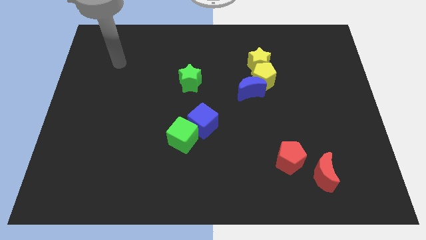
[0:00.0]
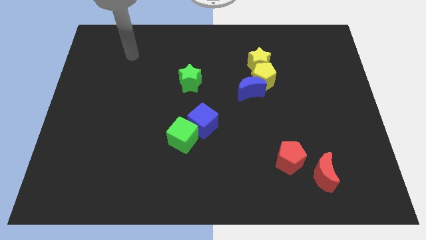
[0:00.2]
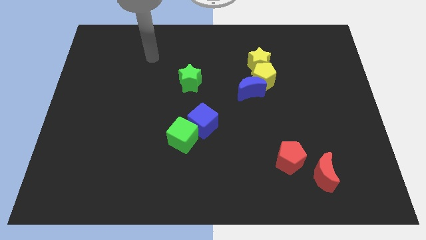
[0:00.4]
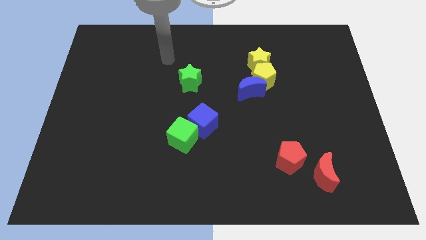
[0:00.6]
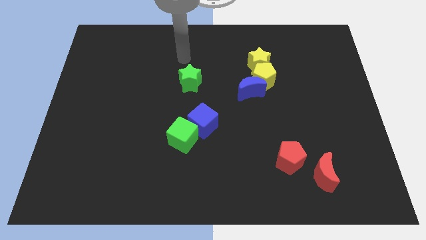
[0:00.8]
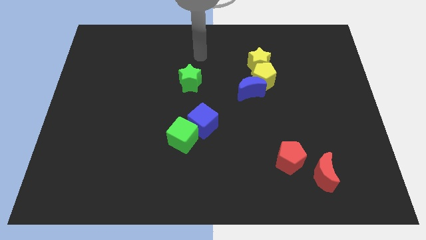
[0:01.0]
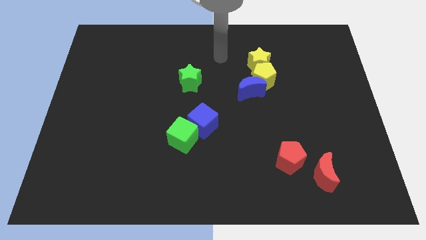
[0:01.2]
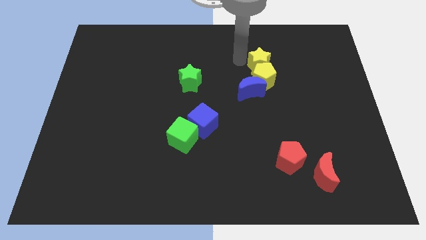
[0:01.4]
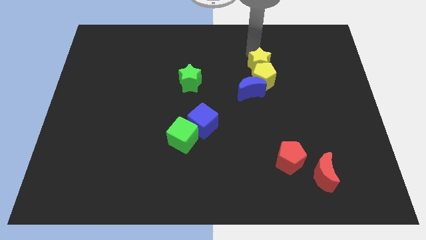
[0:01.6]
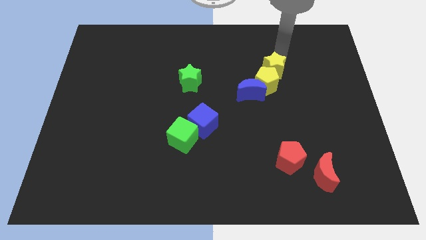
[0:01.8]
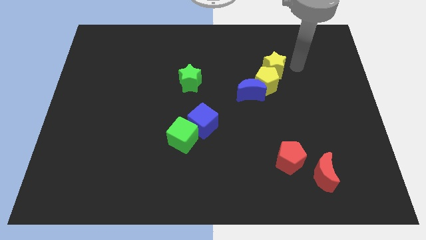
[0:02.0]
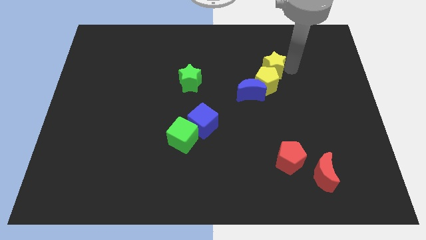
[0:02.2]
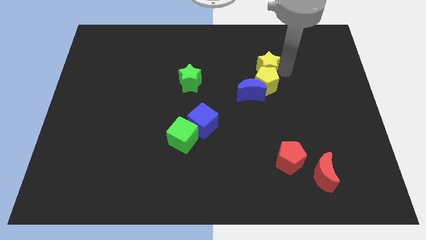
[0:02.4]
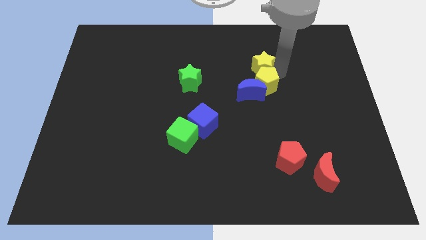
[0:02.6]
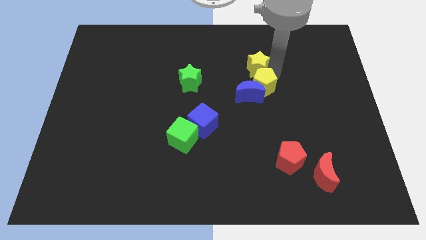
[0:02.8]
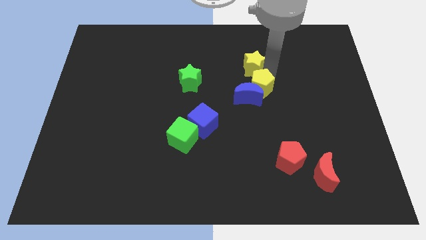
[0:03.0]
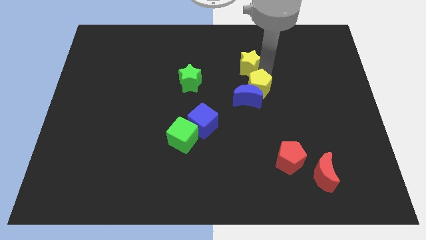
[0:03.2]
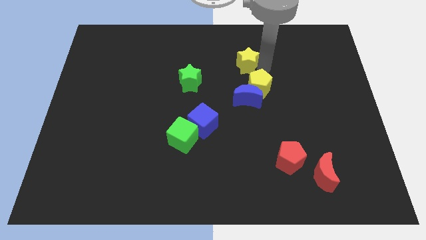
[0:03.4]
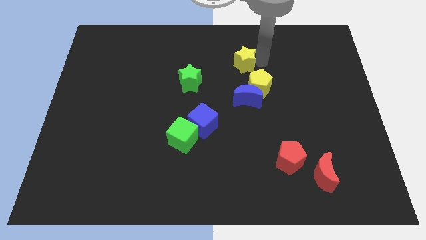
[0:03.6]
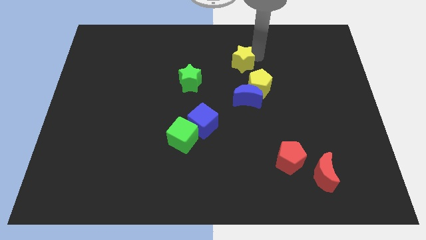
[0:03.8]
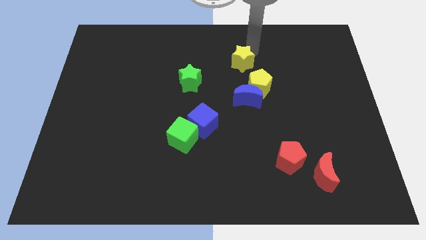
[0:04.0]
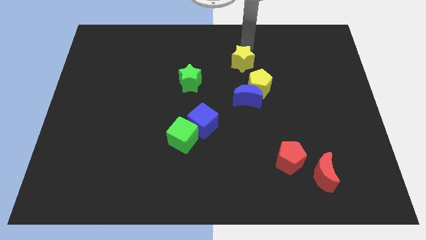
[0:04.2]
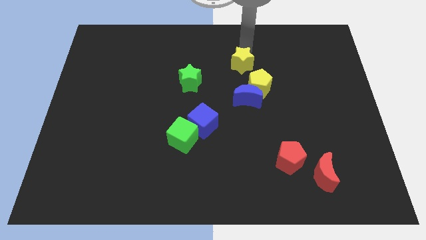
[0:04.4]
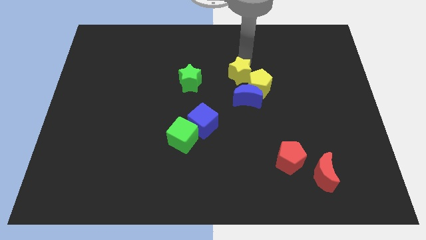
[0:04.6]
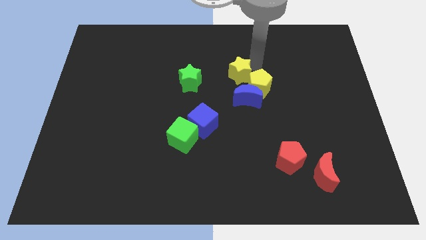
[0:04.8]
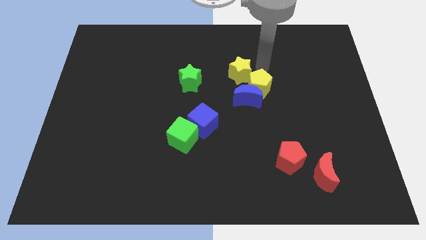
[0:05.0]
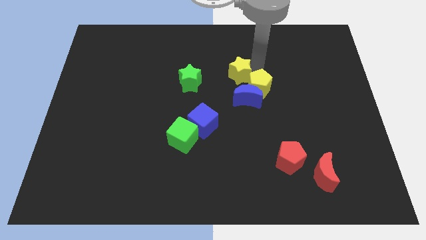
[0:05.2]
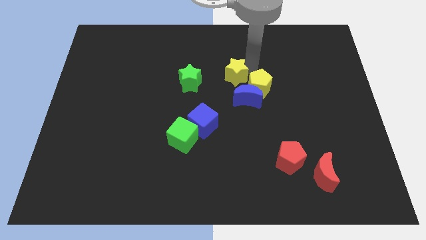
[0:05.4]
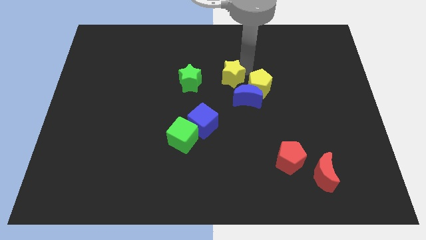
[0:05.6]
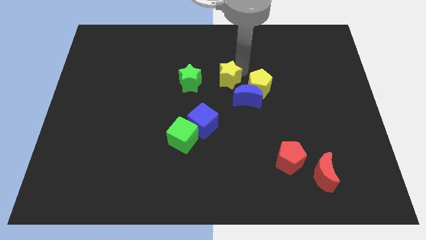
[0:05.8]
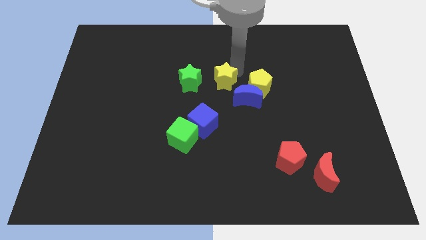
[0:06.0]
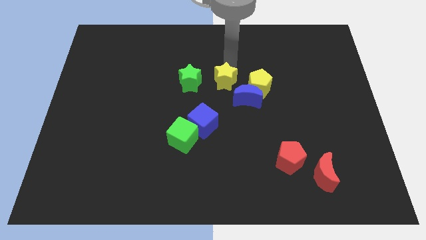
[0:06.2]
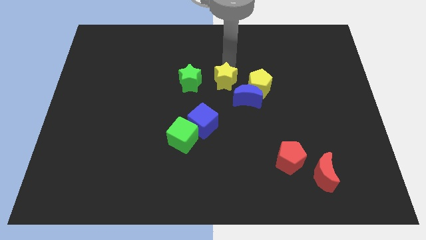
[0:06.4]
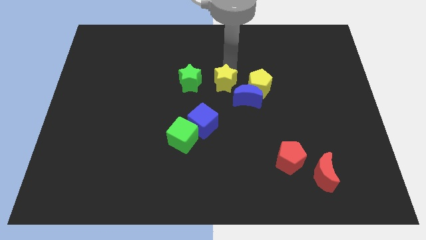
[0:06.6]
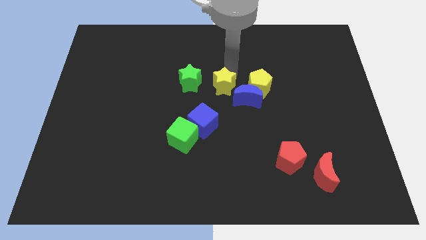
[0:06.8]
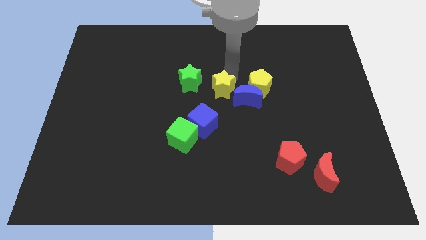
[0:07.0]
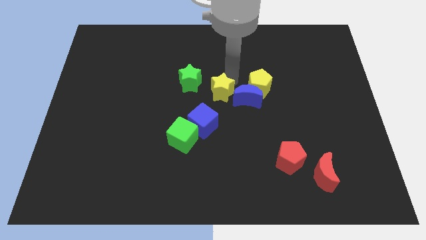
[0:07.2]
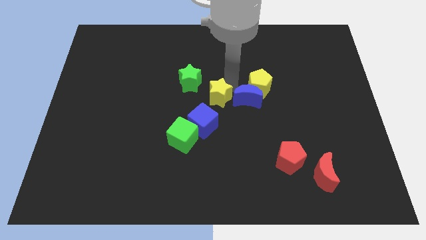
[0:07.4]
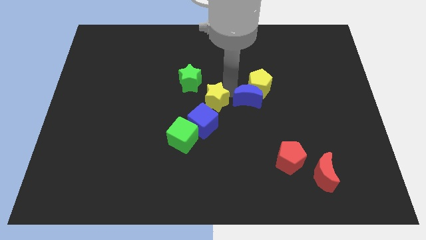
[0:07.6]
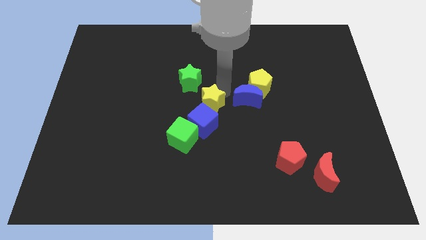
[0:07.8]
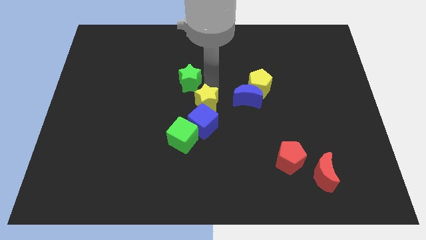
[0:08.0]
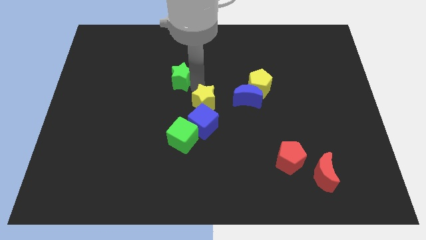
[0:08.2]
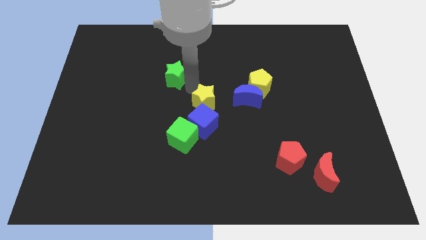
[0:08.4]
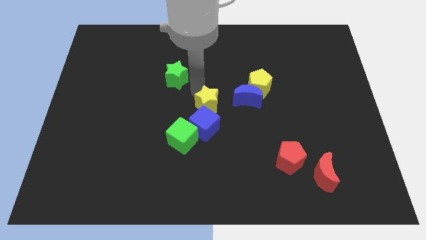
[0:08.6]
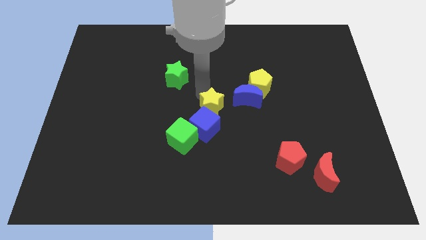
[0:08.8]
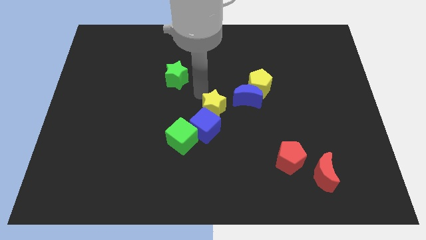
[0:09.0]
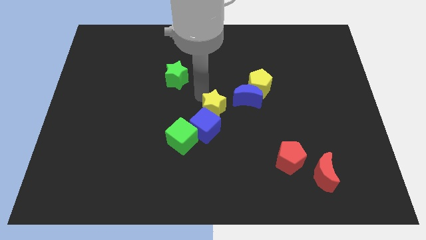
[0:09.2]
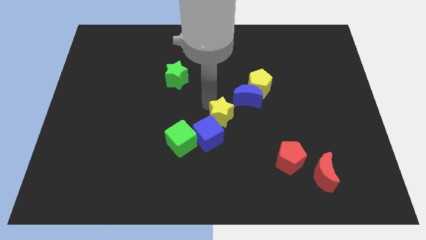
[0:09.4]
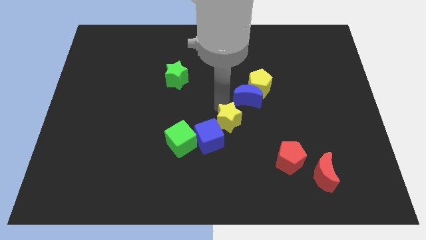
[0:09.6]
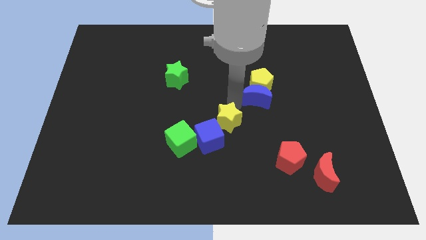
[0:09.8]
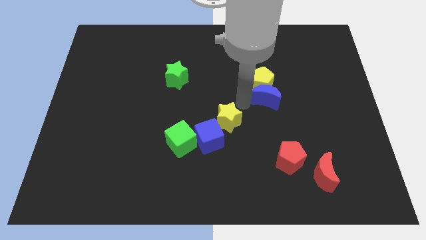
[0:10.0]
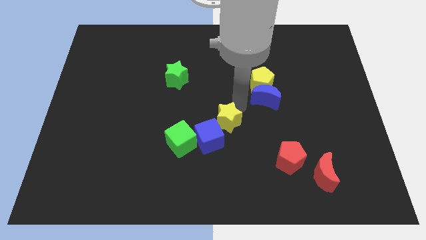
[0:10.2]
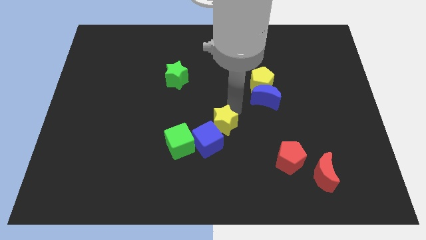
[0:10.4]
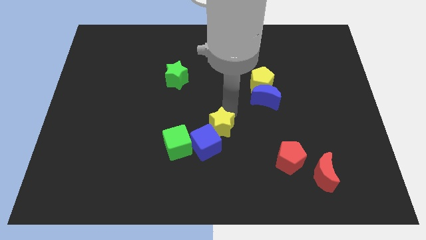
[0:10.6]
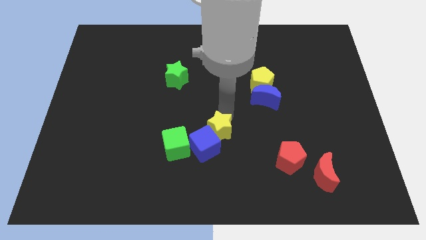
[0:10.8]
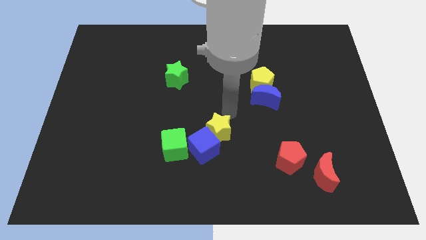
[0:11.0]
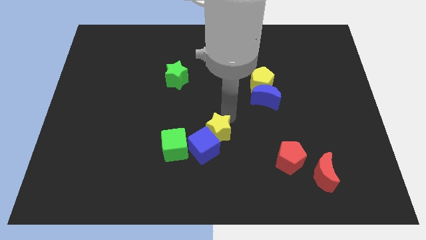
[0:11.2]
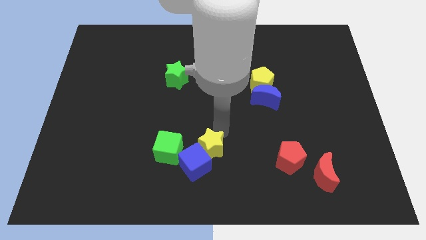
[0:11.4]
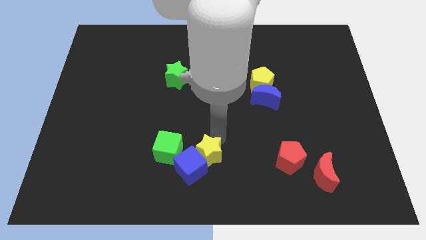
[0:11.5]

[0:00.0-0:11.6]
slide the yellow star to the bottom
